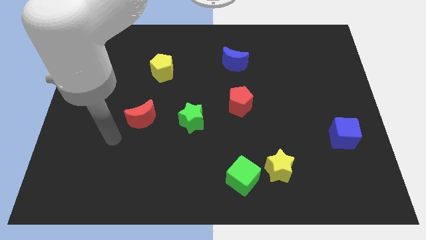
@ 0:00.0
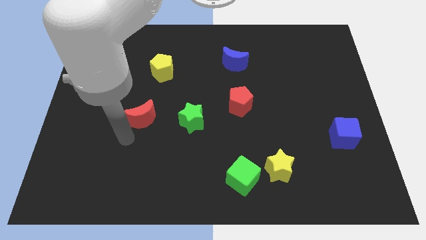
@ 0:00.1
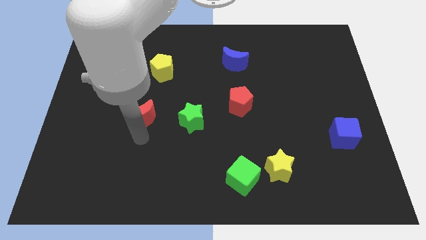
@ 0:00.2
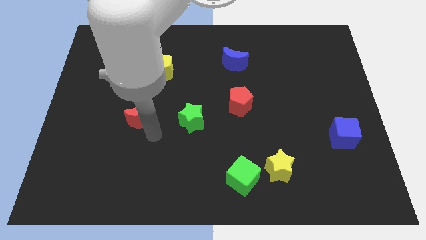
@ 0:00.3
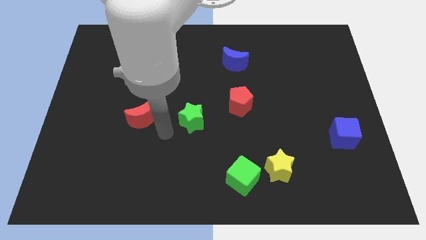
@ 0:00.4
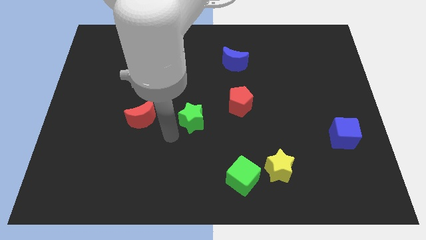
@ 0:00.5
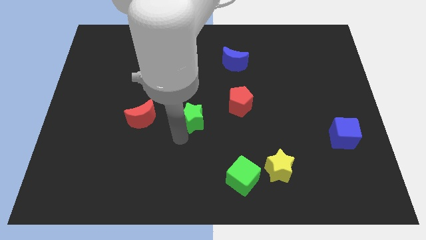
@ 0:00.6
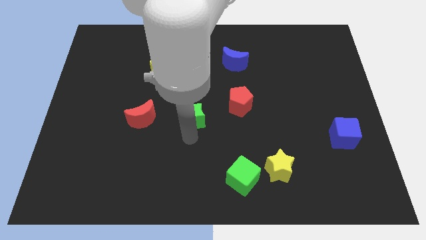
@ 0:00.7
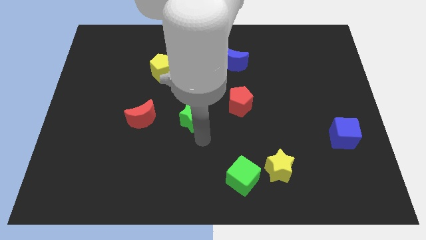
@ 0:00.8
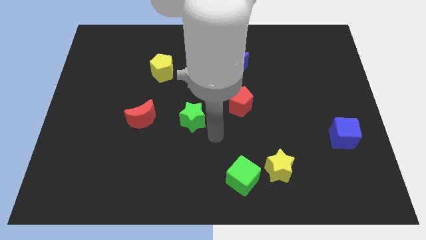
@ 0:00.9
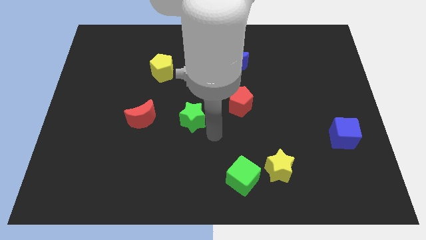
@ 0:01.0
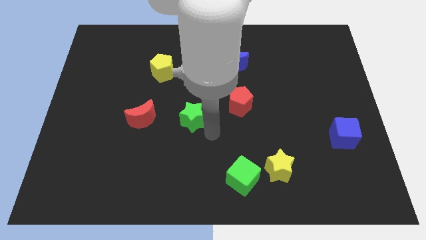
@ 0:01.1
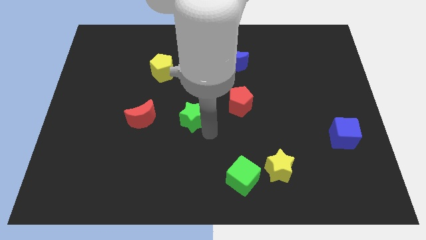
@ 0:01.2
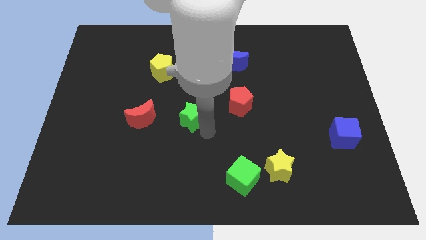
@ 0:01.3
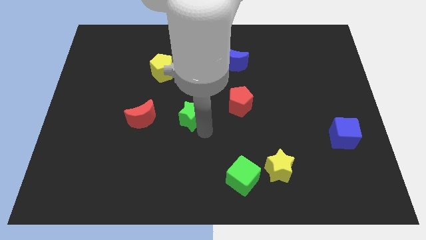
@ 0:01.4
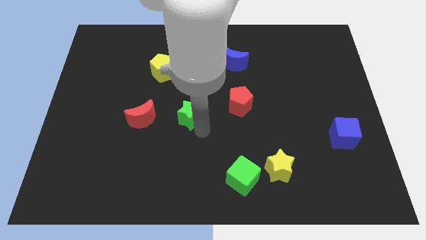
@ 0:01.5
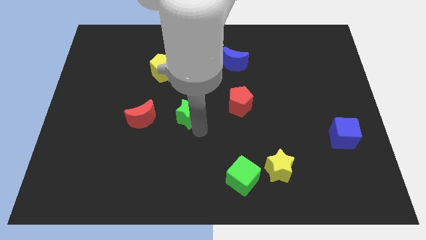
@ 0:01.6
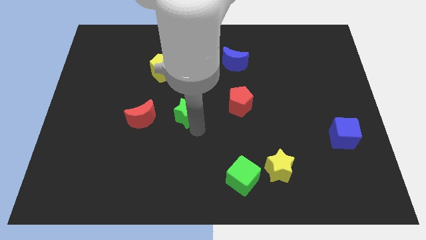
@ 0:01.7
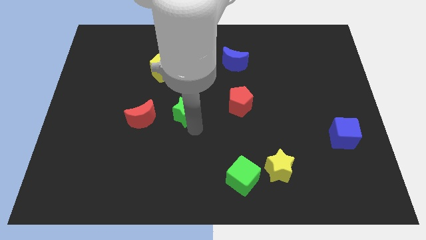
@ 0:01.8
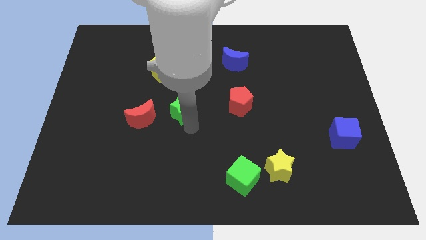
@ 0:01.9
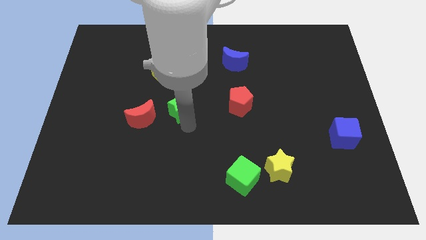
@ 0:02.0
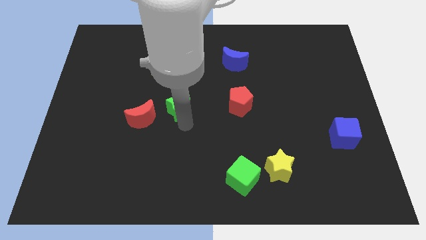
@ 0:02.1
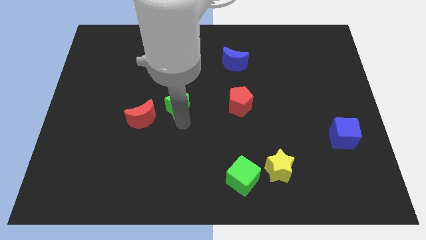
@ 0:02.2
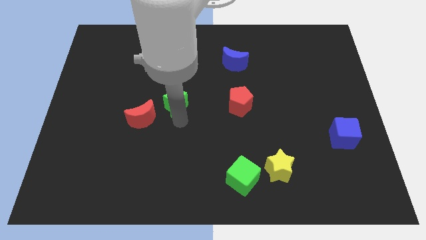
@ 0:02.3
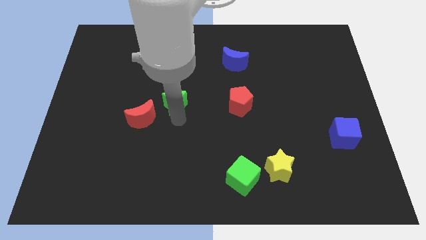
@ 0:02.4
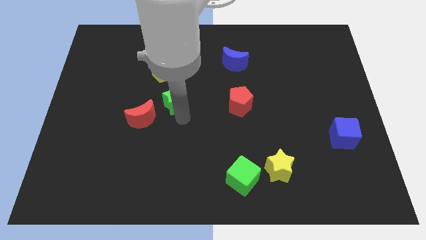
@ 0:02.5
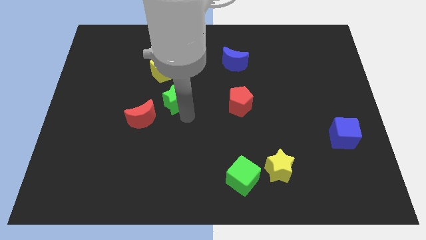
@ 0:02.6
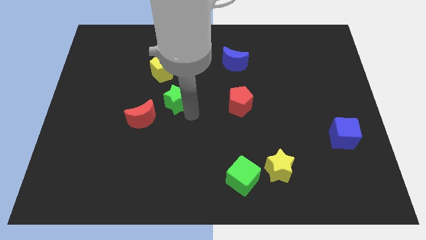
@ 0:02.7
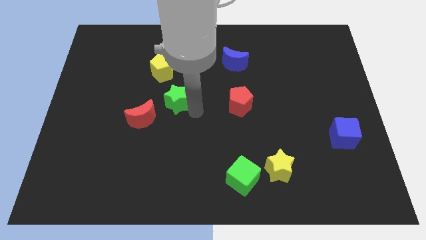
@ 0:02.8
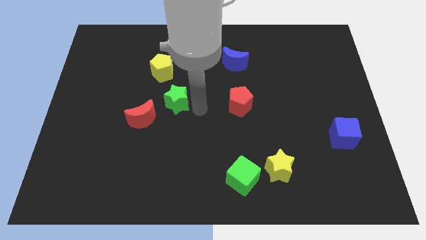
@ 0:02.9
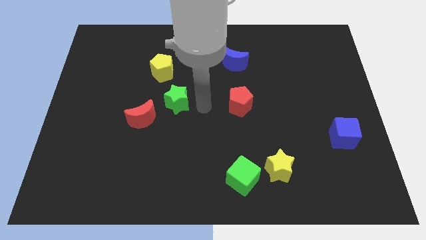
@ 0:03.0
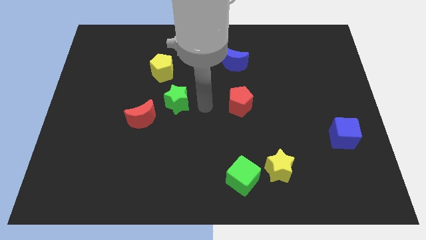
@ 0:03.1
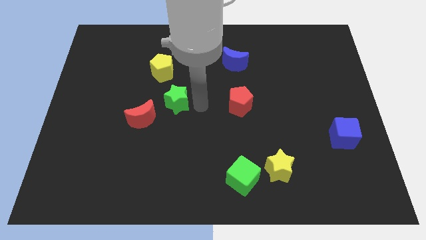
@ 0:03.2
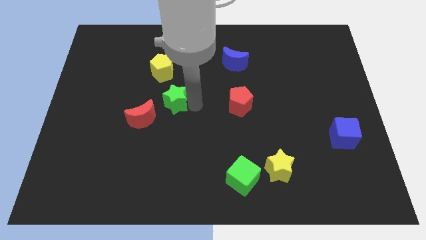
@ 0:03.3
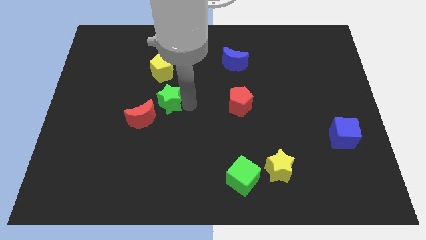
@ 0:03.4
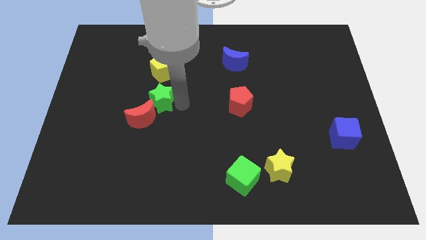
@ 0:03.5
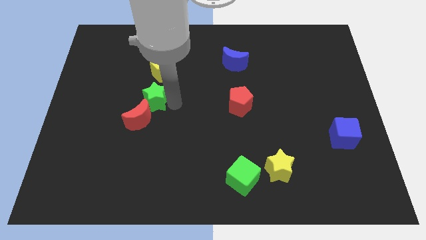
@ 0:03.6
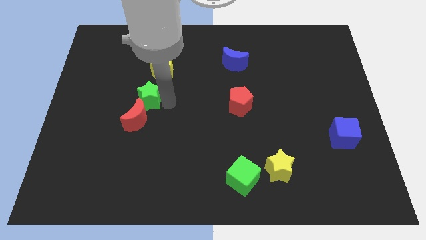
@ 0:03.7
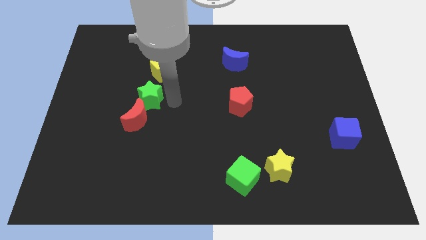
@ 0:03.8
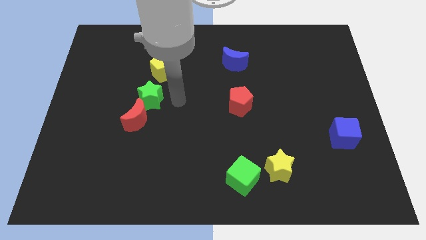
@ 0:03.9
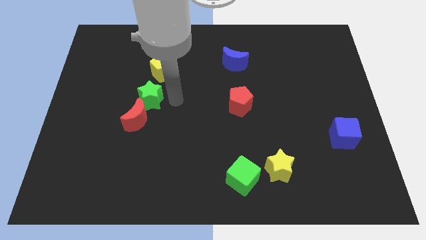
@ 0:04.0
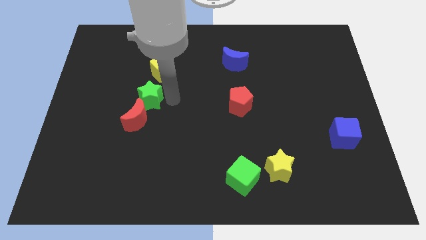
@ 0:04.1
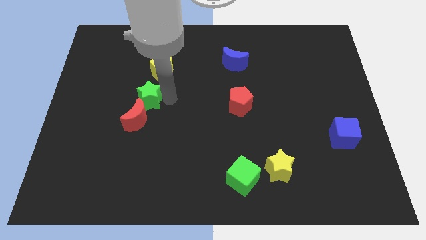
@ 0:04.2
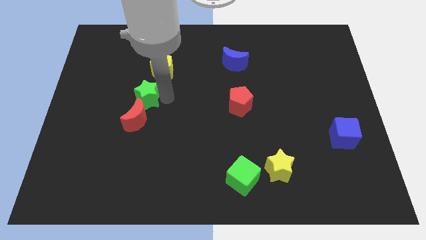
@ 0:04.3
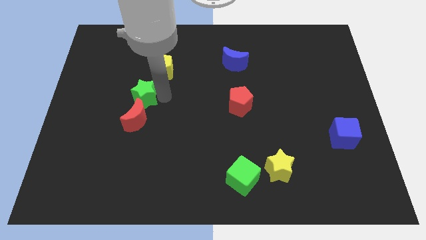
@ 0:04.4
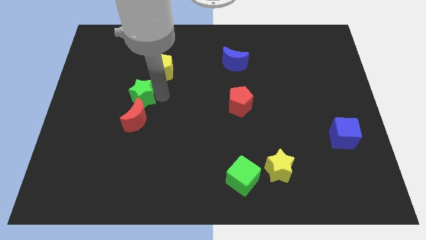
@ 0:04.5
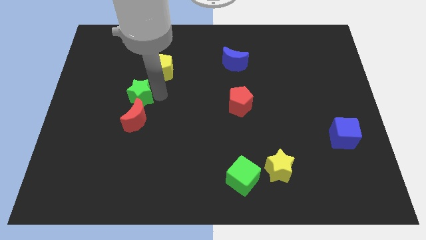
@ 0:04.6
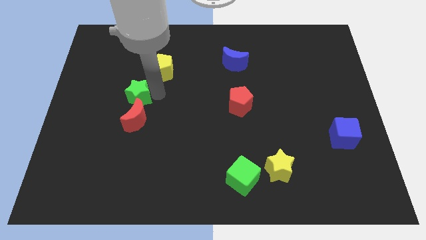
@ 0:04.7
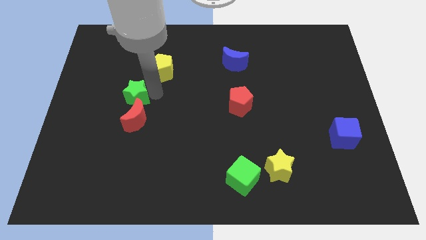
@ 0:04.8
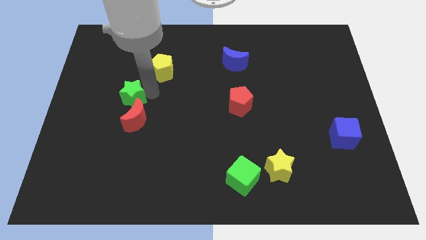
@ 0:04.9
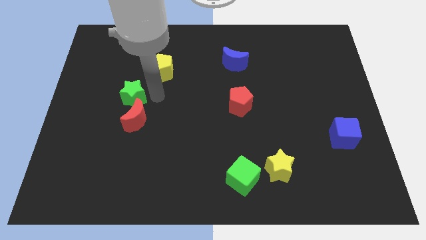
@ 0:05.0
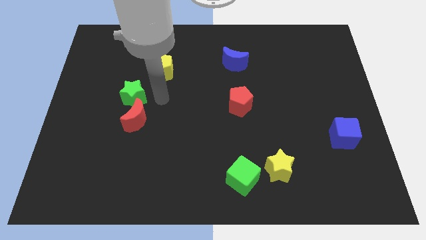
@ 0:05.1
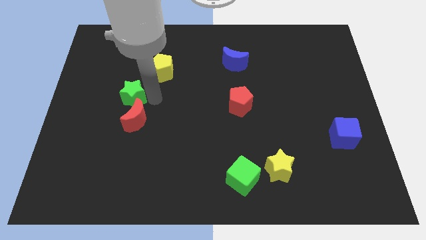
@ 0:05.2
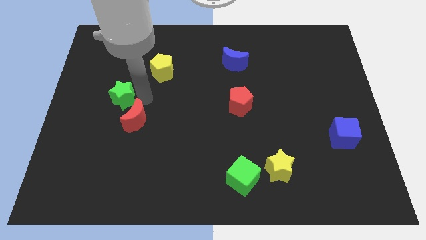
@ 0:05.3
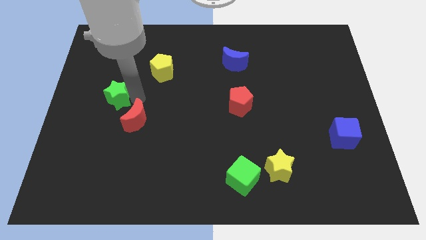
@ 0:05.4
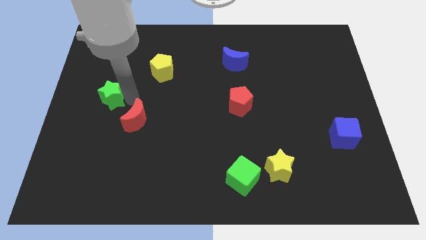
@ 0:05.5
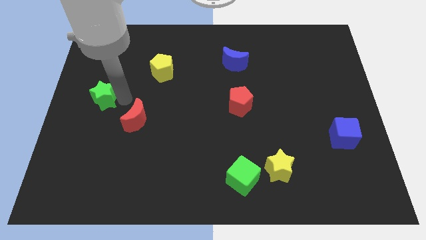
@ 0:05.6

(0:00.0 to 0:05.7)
slide the green star to the left side of the board

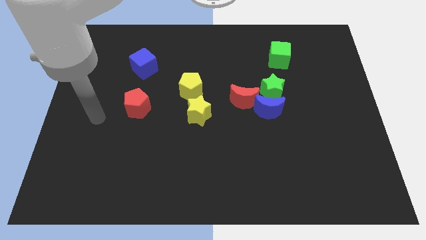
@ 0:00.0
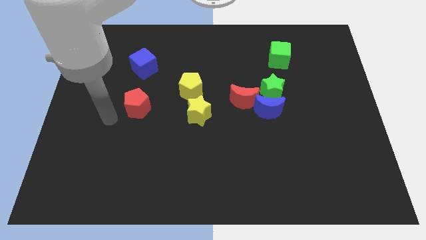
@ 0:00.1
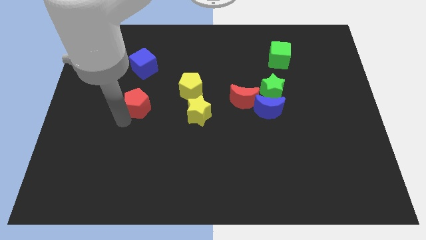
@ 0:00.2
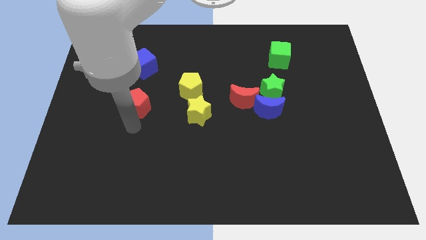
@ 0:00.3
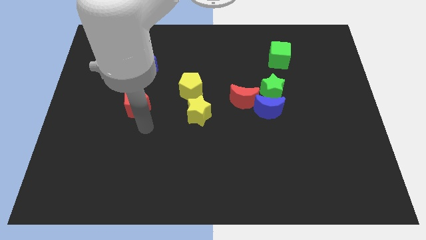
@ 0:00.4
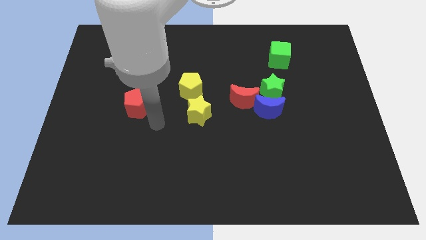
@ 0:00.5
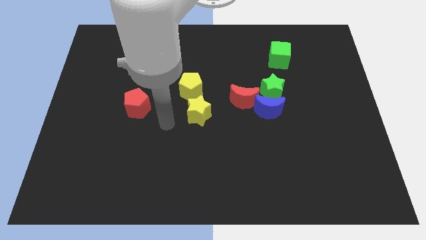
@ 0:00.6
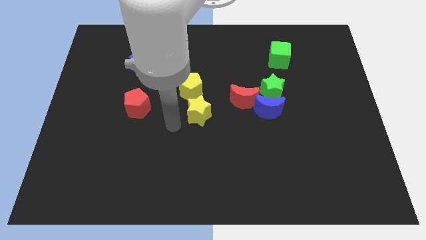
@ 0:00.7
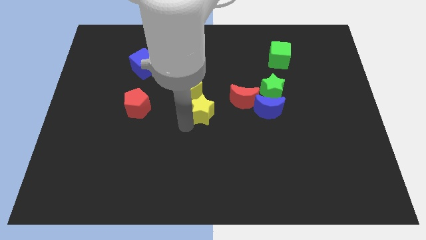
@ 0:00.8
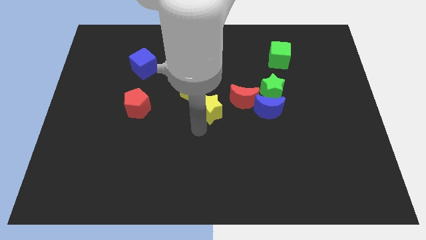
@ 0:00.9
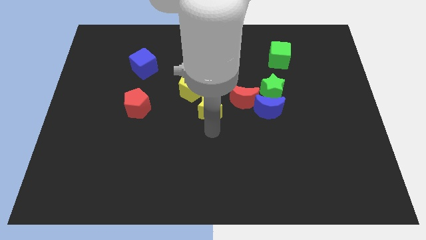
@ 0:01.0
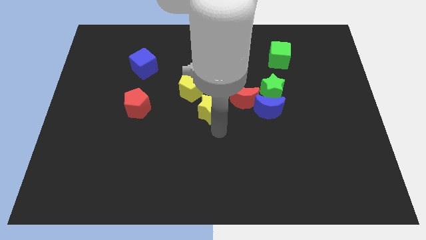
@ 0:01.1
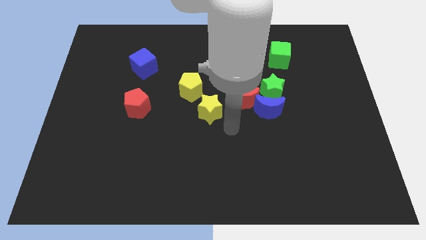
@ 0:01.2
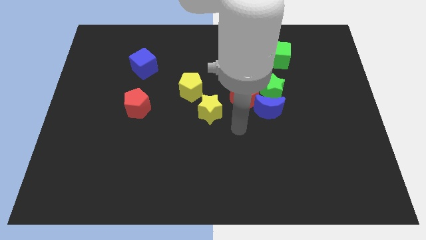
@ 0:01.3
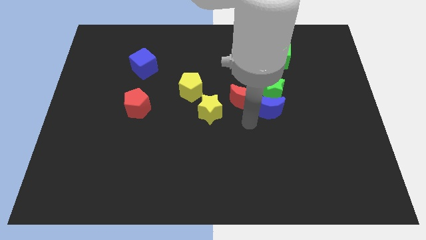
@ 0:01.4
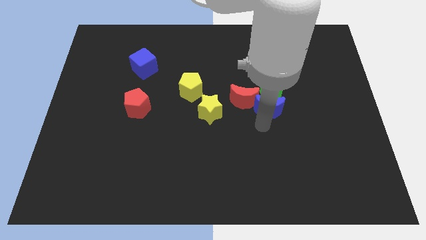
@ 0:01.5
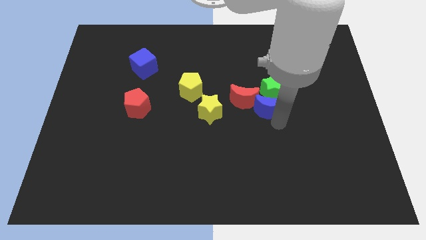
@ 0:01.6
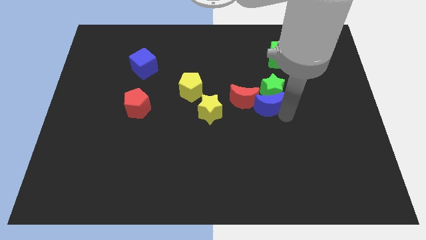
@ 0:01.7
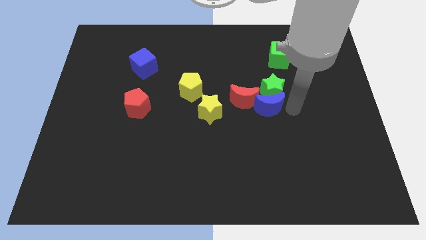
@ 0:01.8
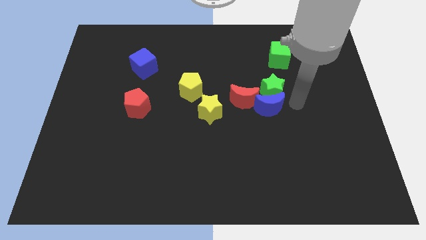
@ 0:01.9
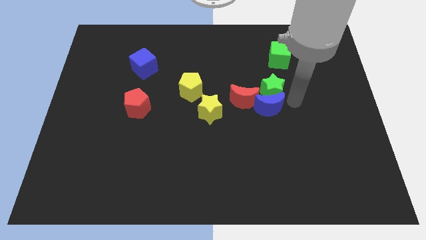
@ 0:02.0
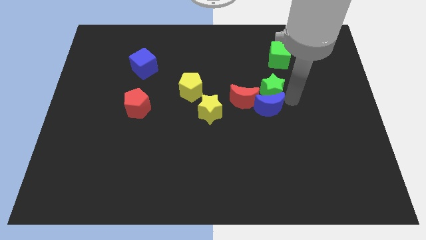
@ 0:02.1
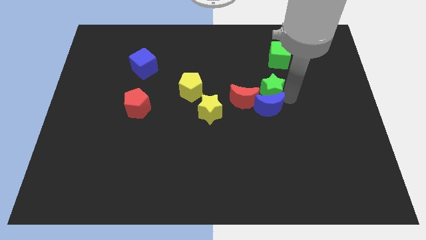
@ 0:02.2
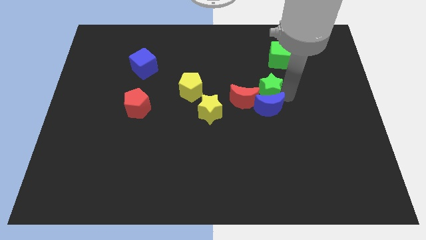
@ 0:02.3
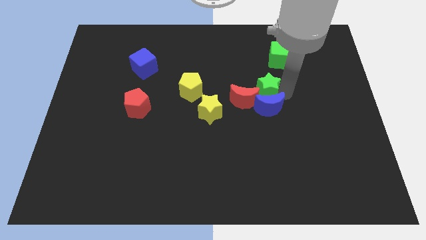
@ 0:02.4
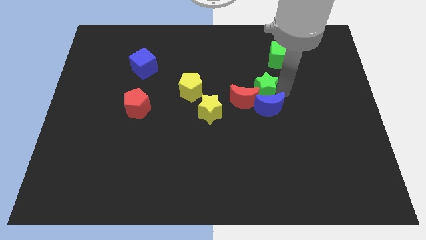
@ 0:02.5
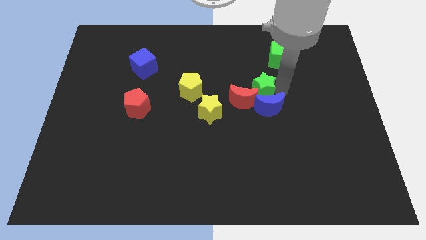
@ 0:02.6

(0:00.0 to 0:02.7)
slide the green star to the center of the board
